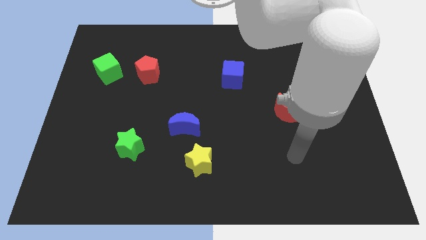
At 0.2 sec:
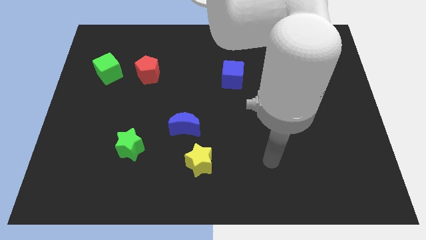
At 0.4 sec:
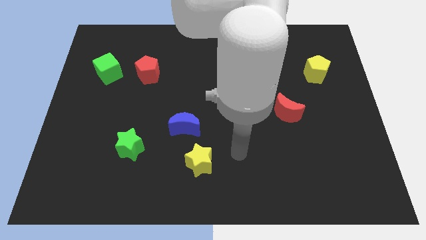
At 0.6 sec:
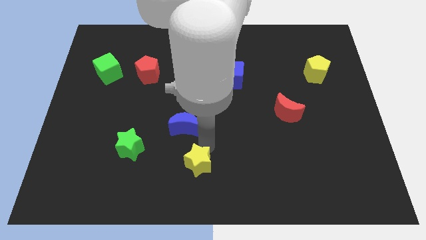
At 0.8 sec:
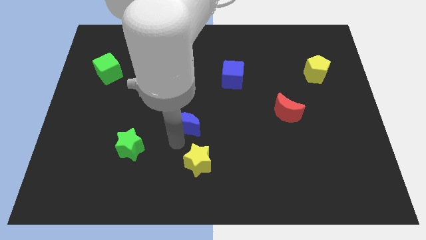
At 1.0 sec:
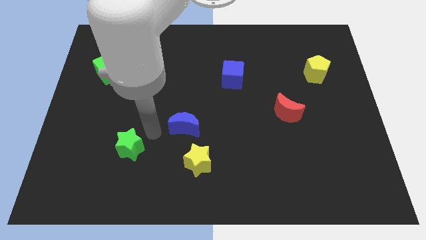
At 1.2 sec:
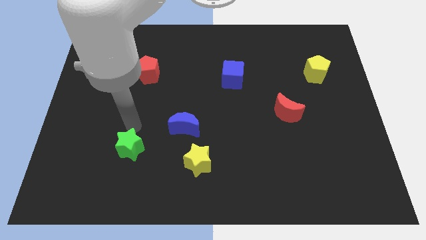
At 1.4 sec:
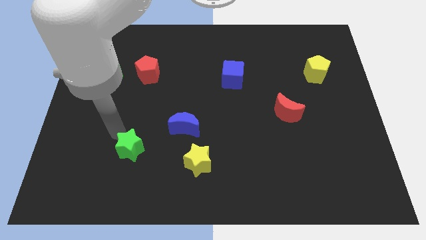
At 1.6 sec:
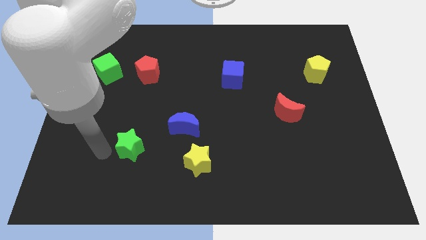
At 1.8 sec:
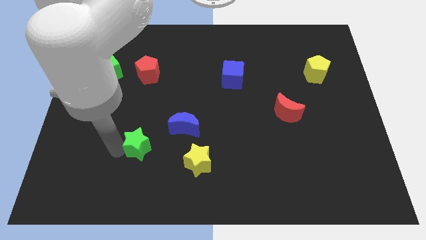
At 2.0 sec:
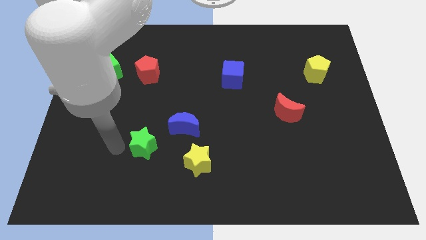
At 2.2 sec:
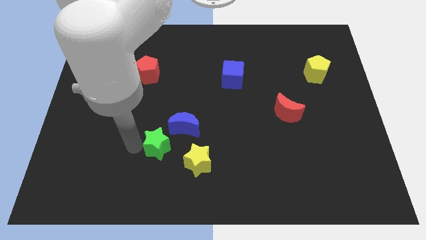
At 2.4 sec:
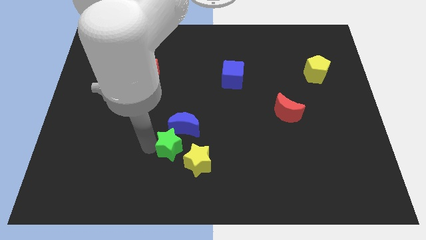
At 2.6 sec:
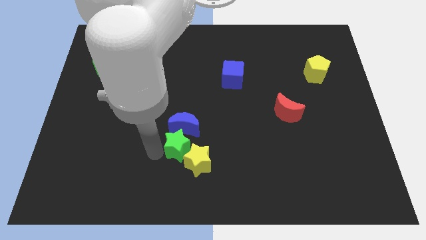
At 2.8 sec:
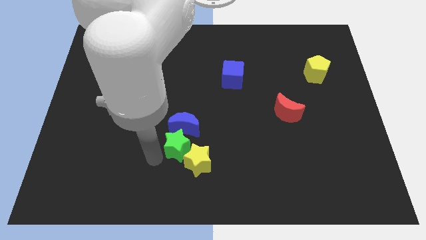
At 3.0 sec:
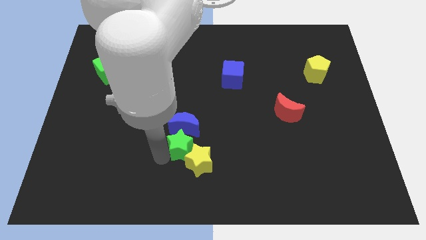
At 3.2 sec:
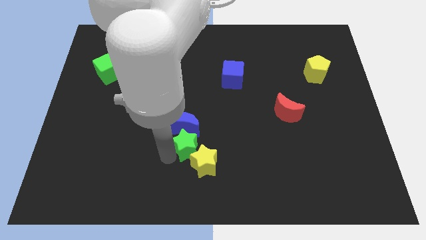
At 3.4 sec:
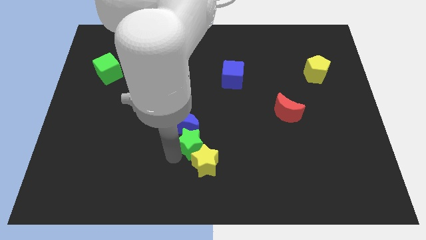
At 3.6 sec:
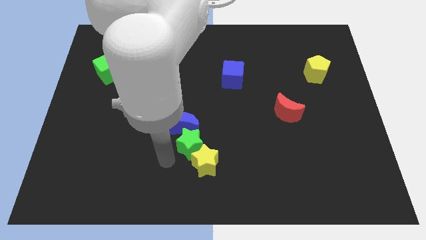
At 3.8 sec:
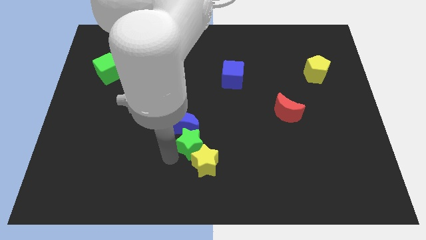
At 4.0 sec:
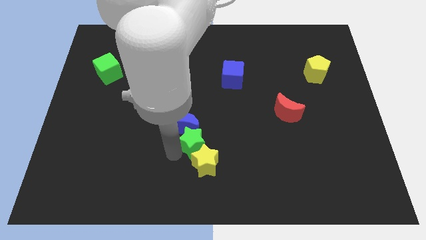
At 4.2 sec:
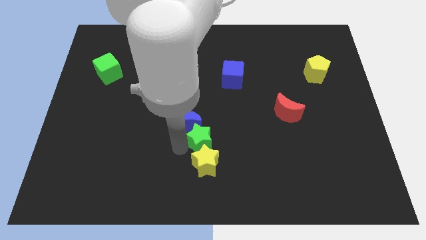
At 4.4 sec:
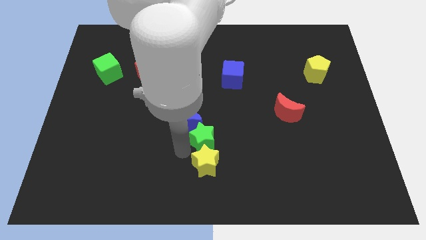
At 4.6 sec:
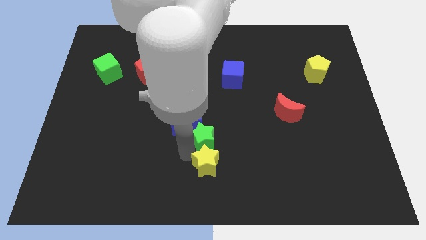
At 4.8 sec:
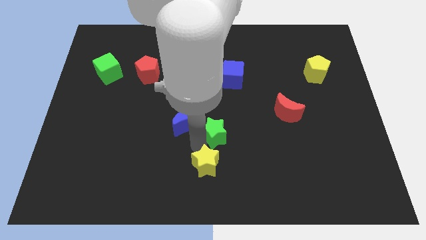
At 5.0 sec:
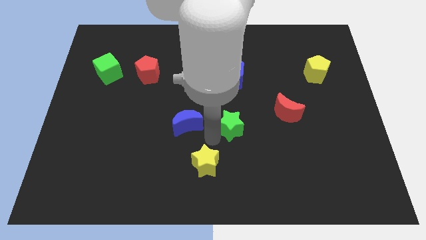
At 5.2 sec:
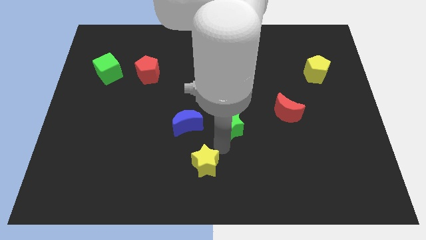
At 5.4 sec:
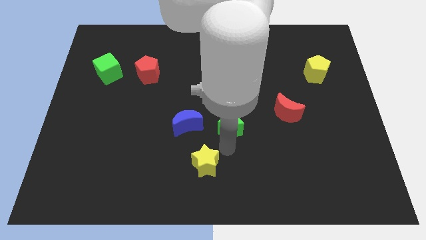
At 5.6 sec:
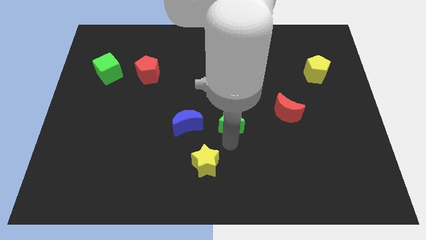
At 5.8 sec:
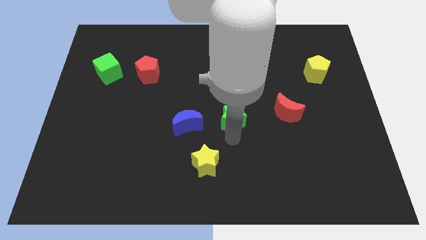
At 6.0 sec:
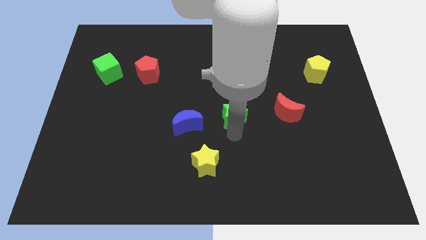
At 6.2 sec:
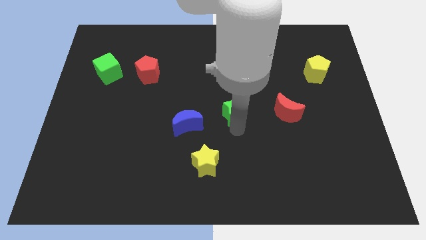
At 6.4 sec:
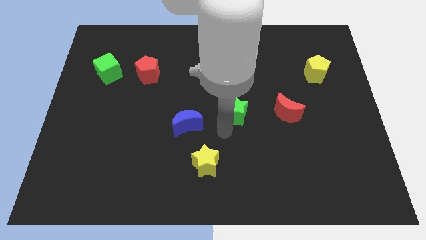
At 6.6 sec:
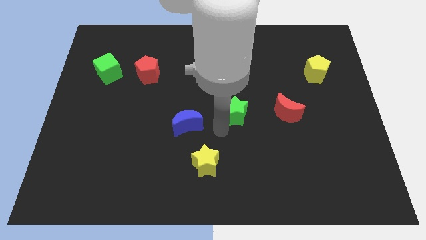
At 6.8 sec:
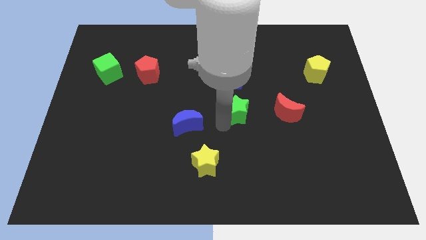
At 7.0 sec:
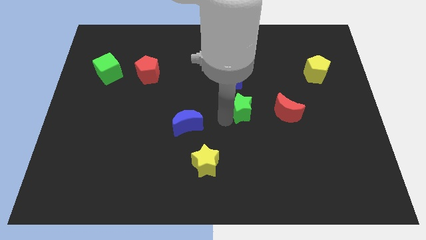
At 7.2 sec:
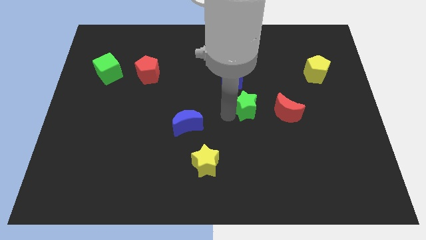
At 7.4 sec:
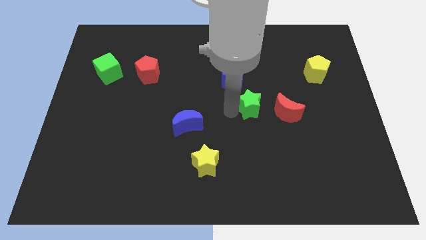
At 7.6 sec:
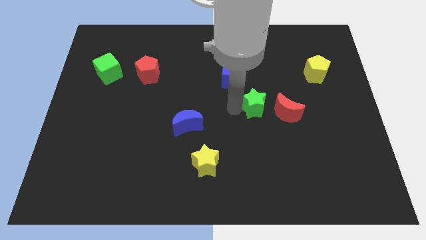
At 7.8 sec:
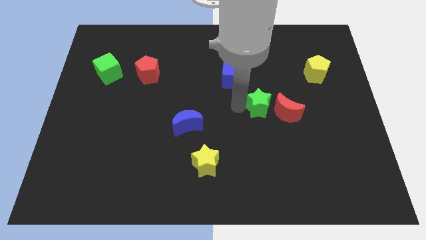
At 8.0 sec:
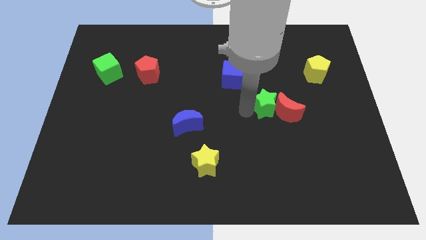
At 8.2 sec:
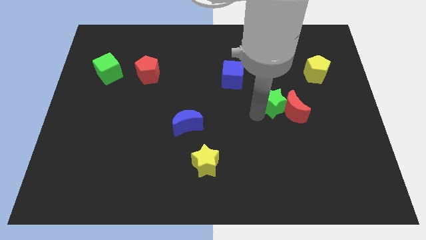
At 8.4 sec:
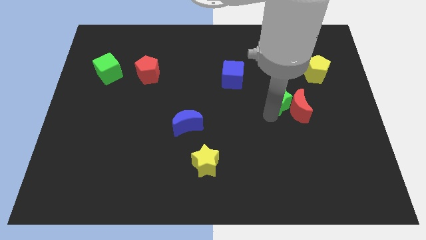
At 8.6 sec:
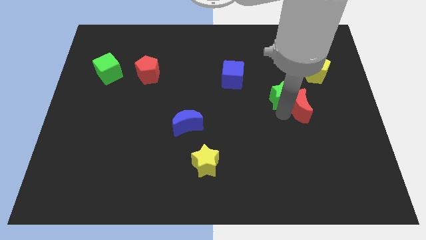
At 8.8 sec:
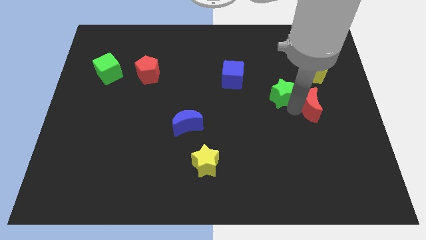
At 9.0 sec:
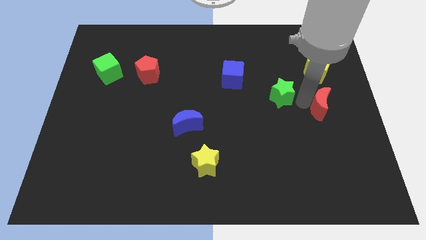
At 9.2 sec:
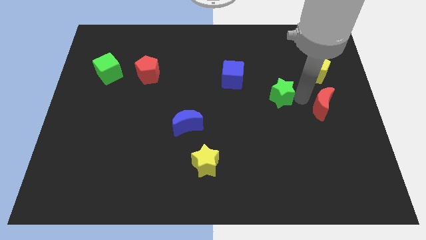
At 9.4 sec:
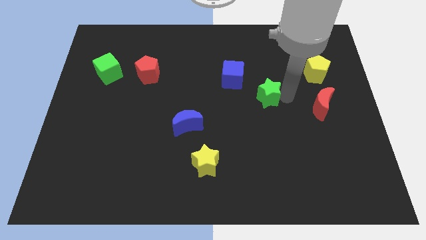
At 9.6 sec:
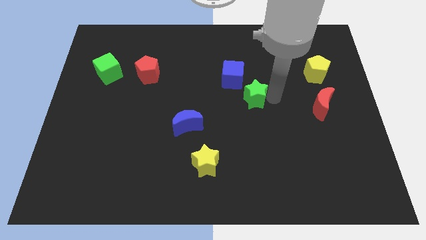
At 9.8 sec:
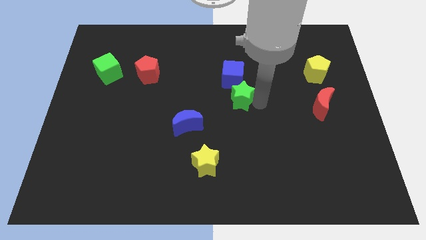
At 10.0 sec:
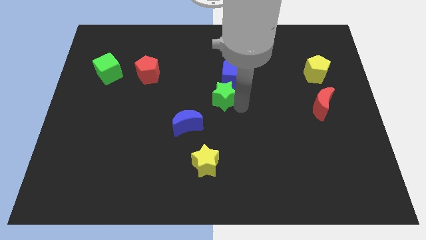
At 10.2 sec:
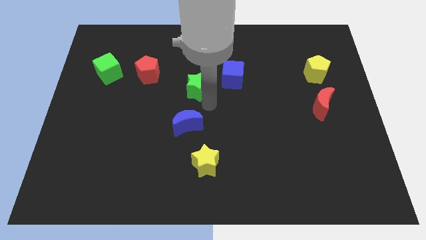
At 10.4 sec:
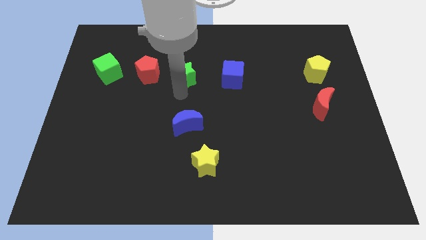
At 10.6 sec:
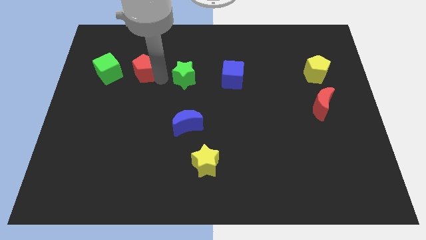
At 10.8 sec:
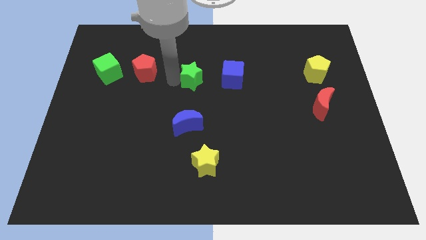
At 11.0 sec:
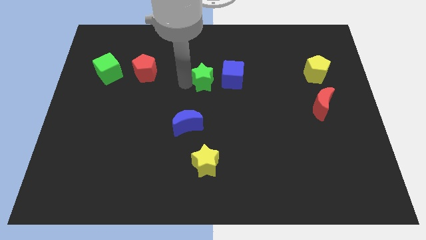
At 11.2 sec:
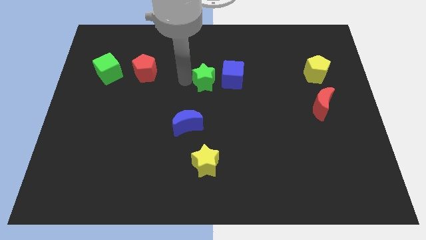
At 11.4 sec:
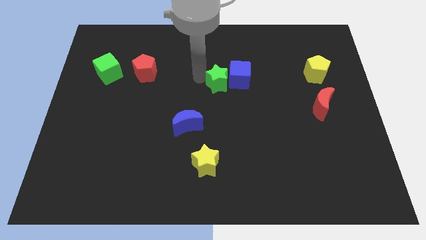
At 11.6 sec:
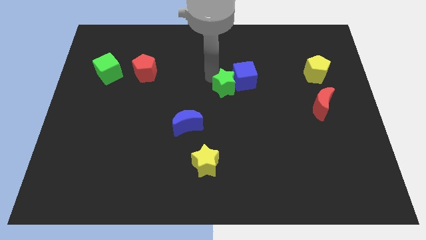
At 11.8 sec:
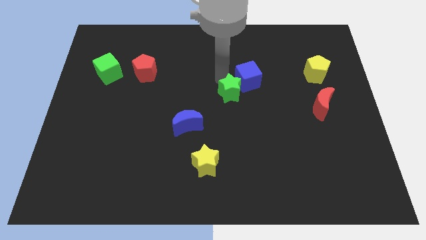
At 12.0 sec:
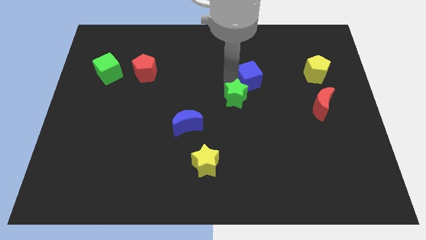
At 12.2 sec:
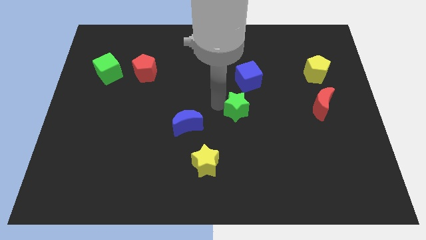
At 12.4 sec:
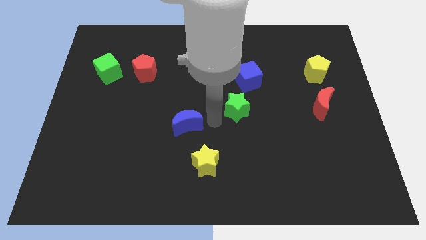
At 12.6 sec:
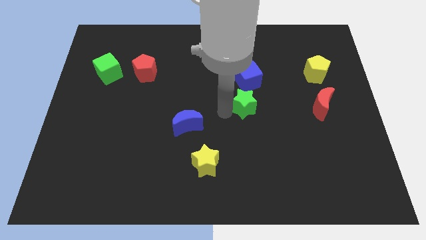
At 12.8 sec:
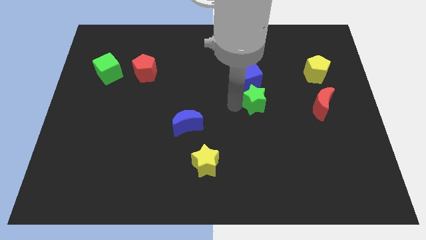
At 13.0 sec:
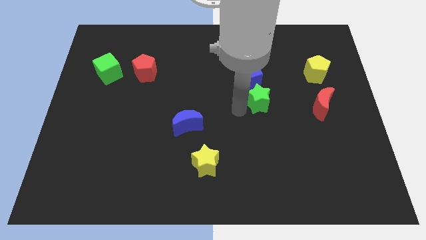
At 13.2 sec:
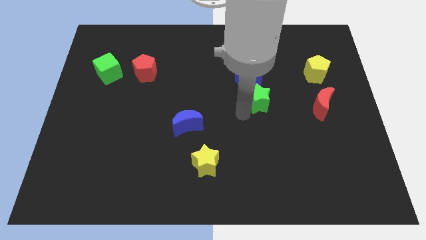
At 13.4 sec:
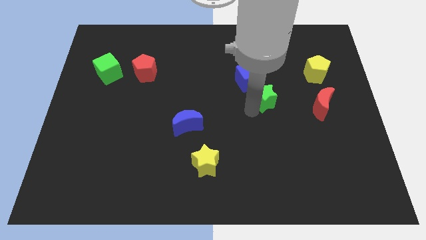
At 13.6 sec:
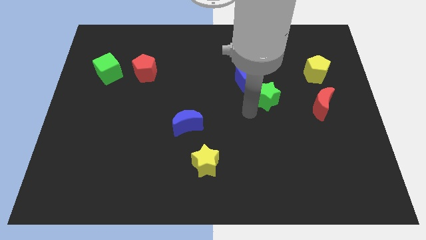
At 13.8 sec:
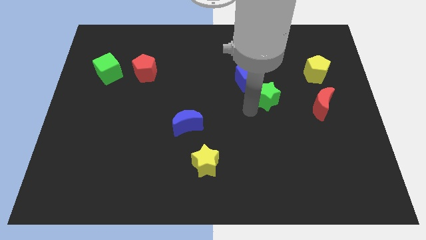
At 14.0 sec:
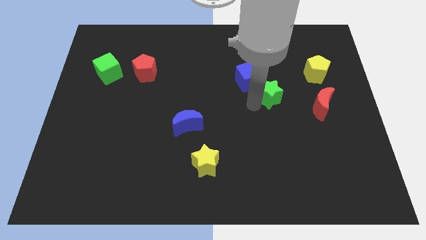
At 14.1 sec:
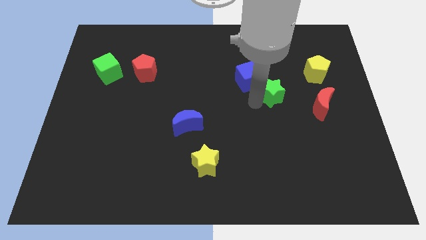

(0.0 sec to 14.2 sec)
put the green star to the right of the blue cube
